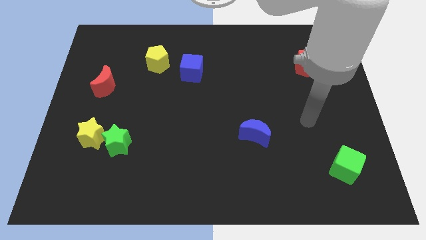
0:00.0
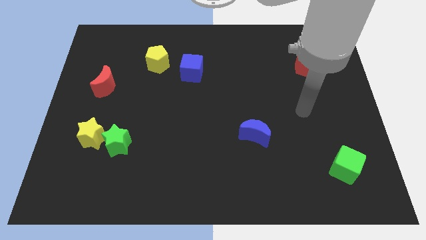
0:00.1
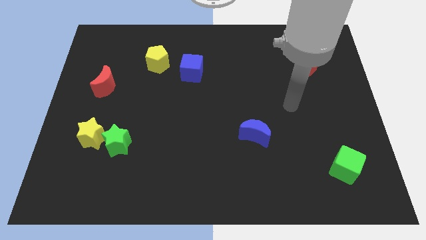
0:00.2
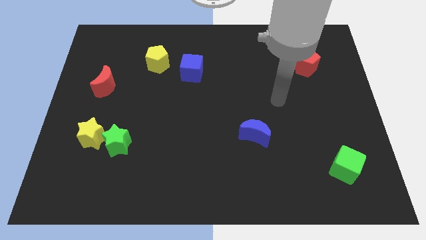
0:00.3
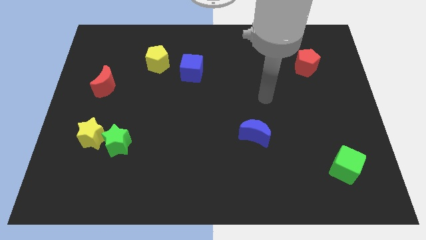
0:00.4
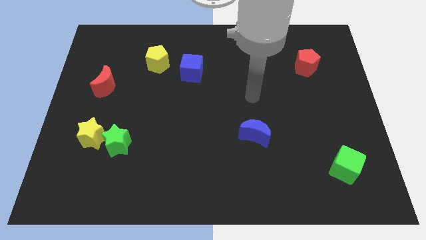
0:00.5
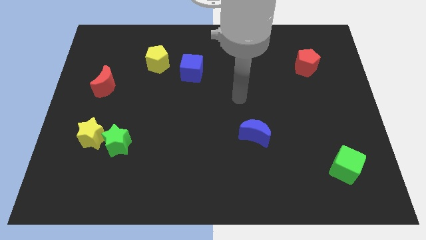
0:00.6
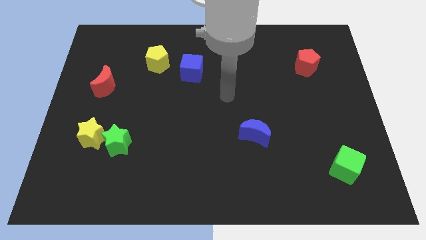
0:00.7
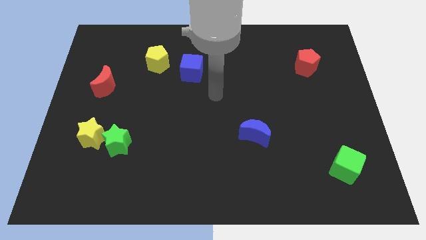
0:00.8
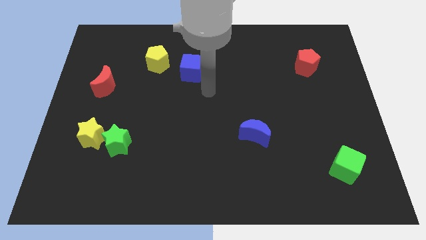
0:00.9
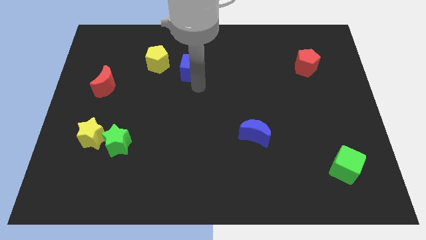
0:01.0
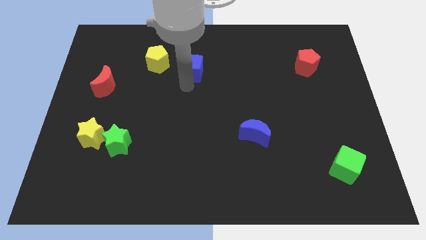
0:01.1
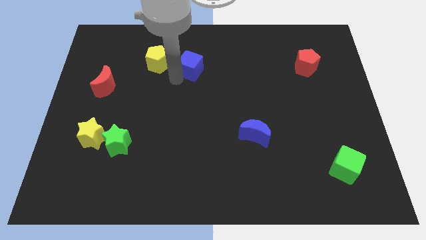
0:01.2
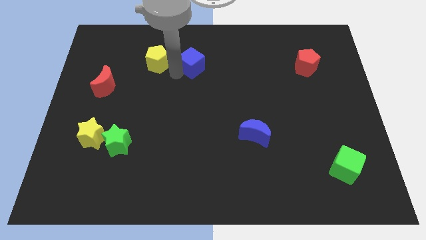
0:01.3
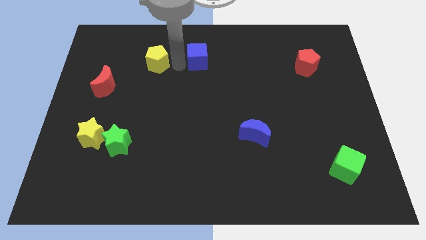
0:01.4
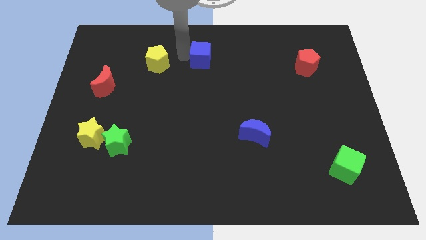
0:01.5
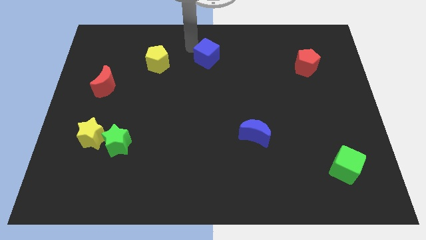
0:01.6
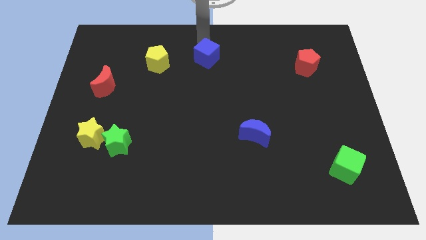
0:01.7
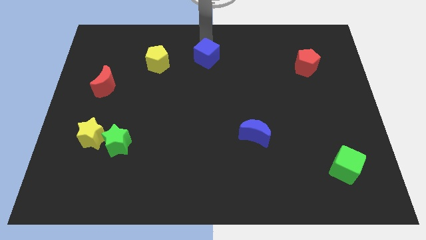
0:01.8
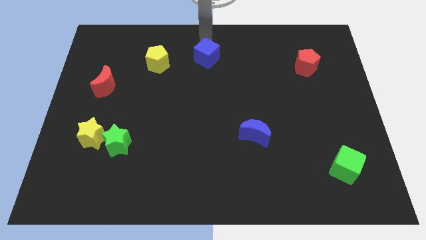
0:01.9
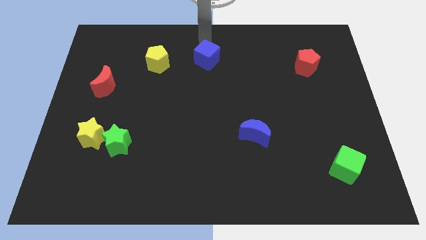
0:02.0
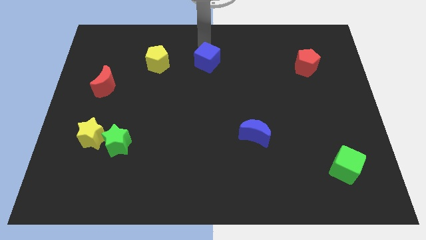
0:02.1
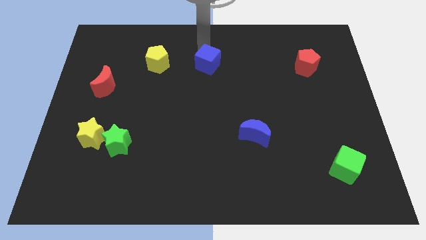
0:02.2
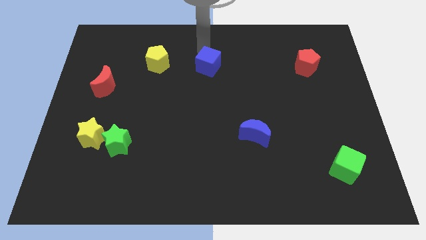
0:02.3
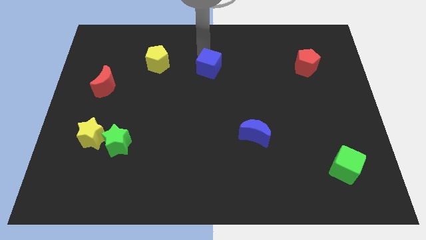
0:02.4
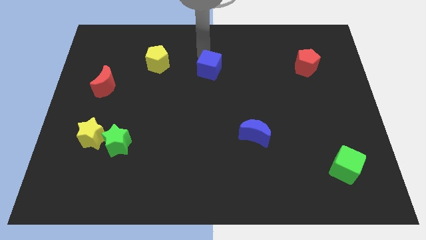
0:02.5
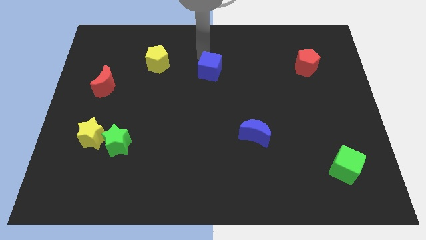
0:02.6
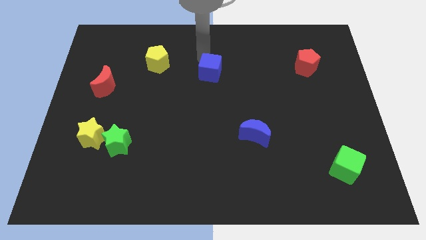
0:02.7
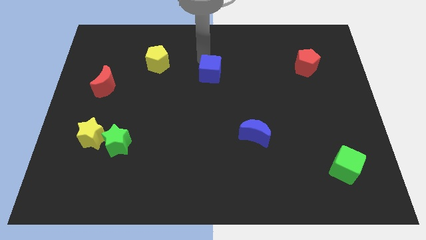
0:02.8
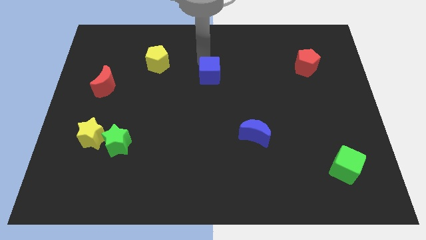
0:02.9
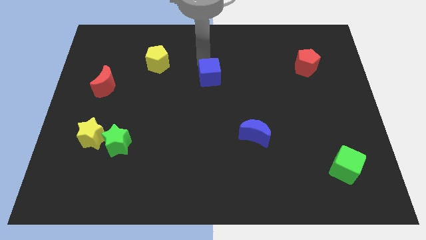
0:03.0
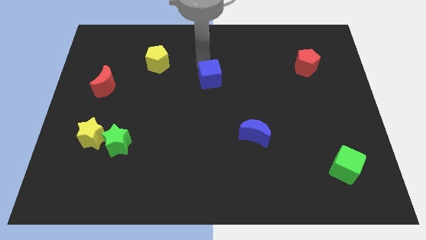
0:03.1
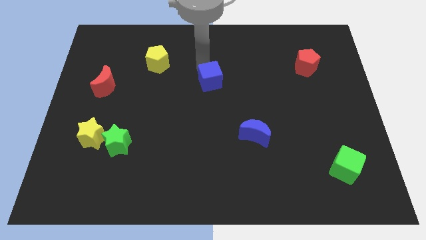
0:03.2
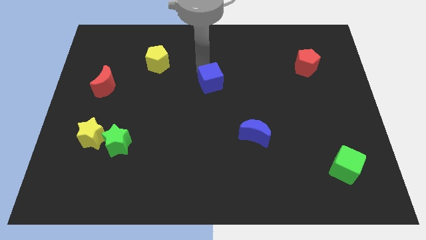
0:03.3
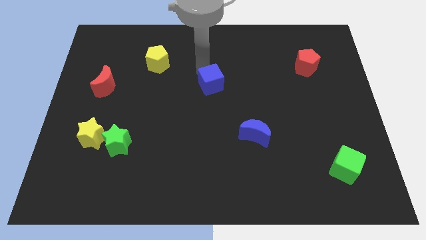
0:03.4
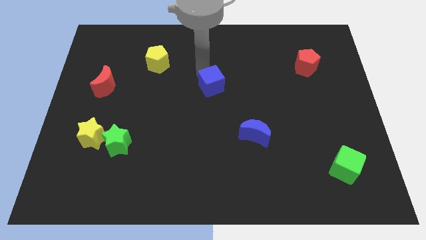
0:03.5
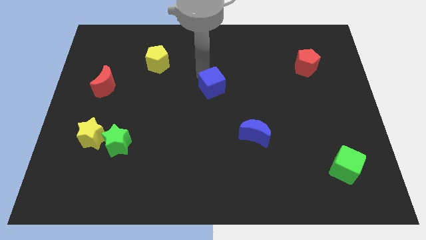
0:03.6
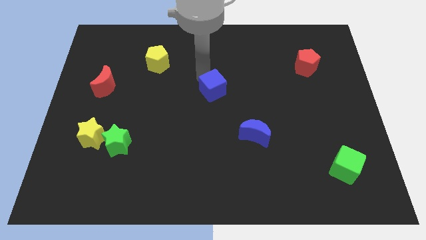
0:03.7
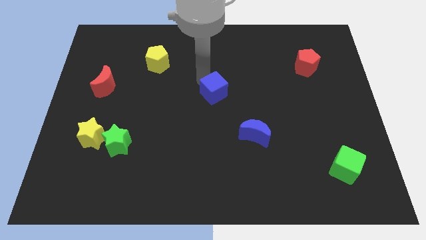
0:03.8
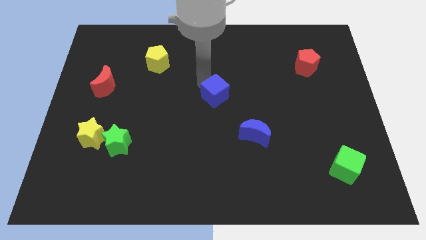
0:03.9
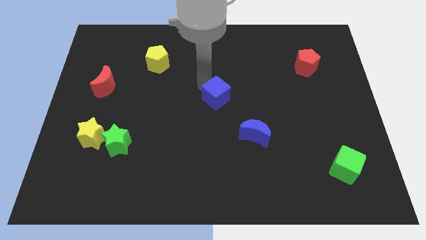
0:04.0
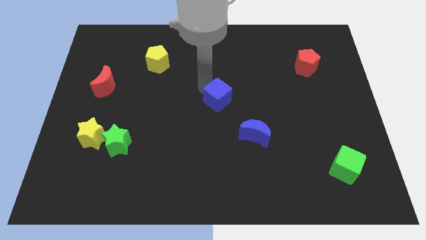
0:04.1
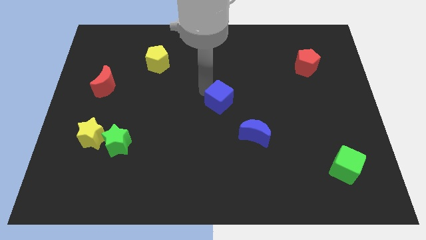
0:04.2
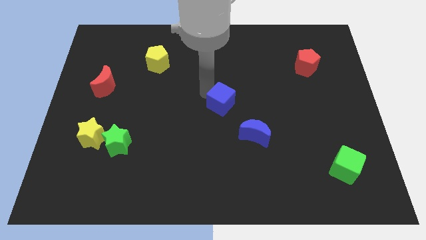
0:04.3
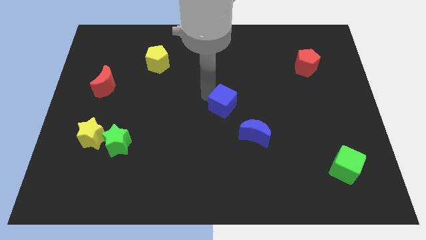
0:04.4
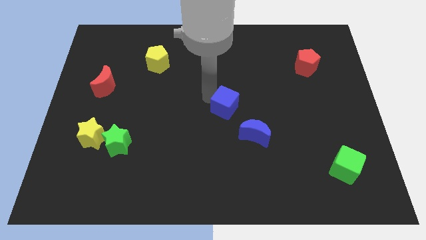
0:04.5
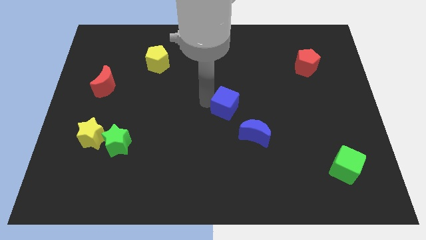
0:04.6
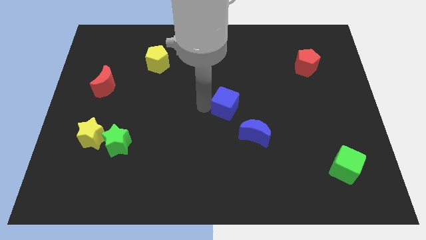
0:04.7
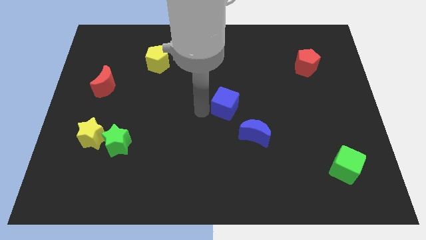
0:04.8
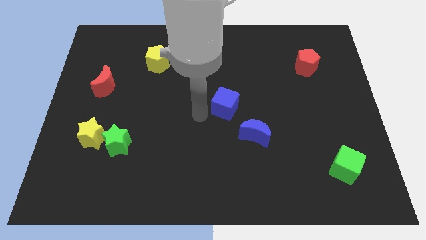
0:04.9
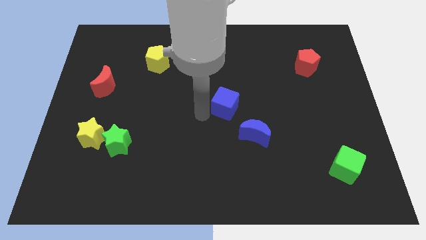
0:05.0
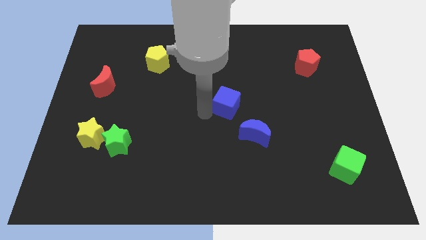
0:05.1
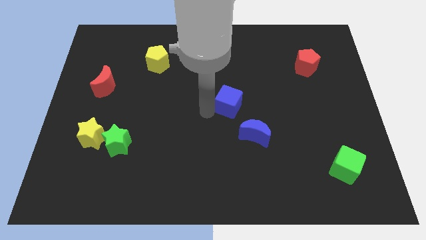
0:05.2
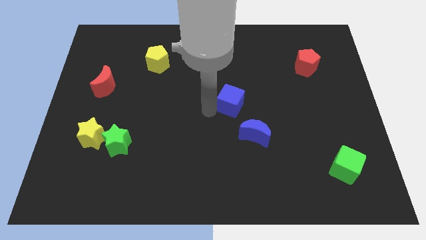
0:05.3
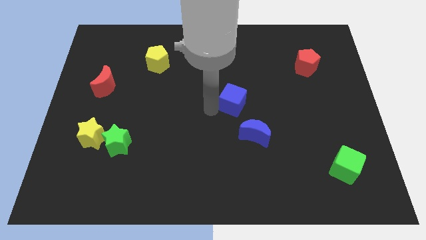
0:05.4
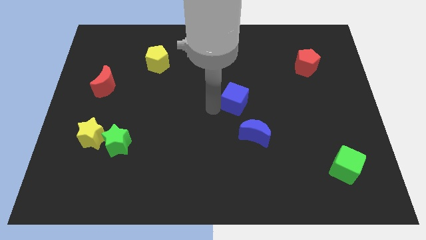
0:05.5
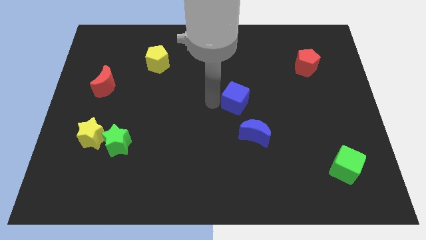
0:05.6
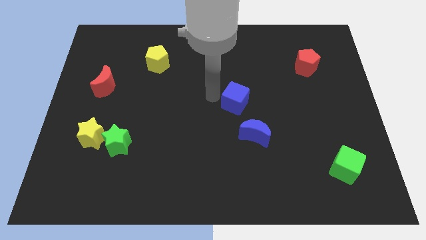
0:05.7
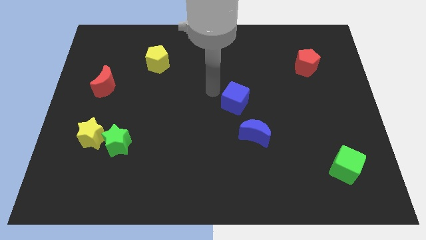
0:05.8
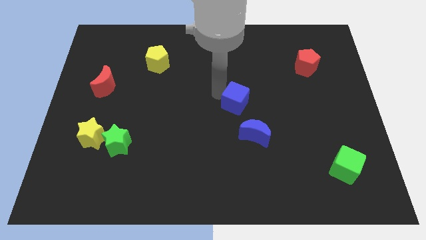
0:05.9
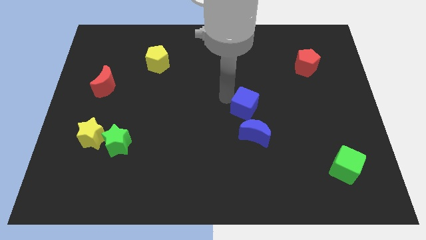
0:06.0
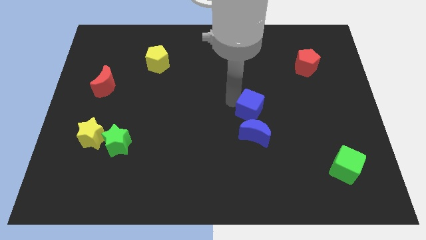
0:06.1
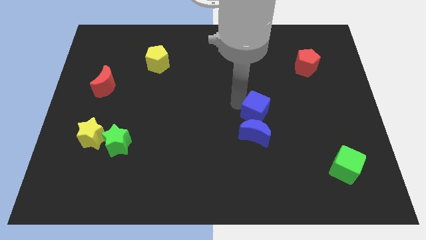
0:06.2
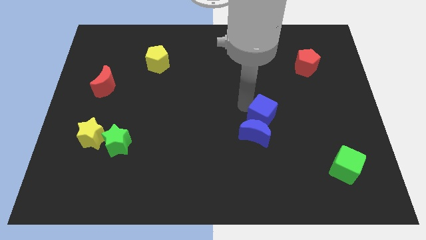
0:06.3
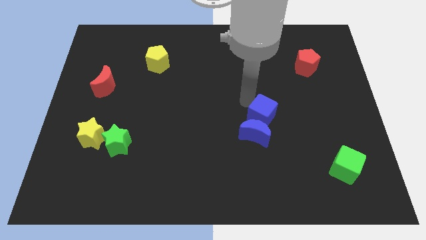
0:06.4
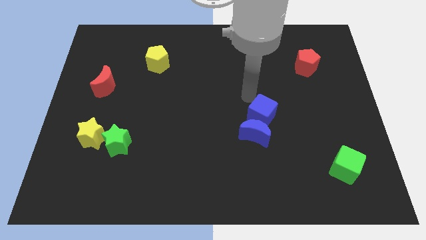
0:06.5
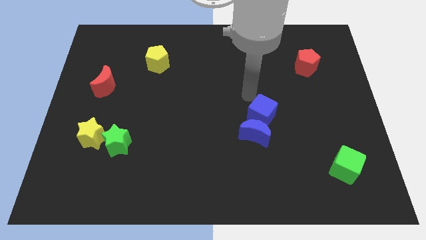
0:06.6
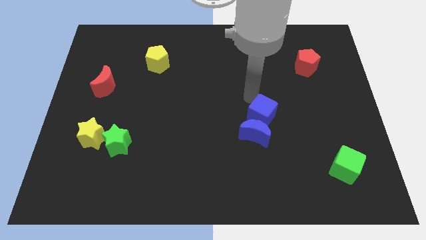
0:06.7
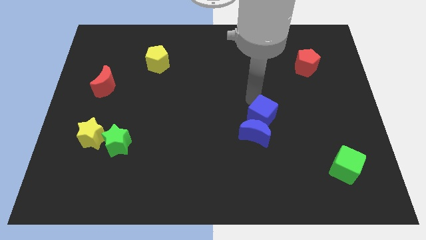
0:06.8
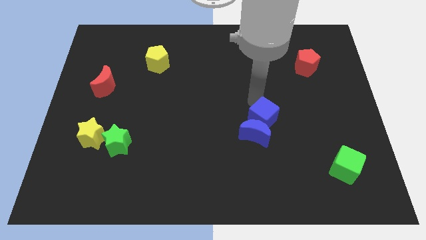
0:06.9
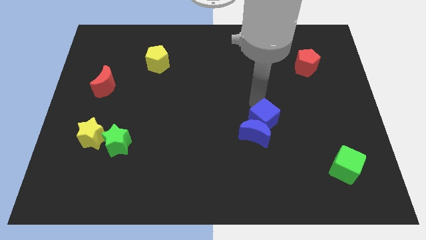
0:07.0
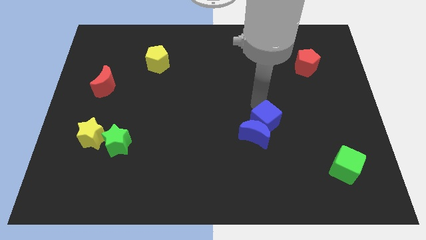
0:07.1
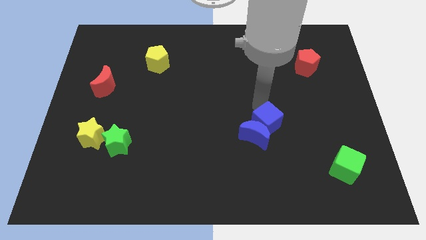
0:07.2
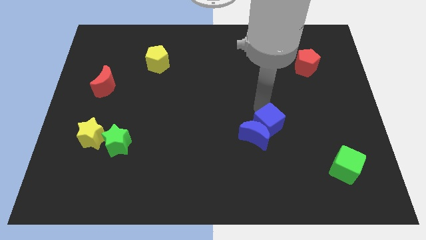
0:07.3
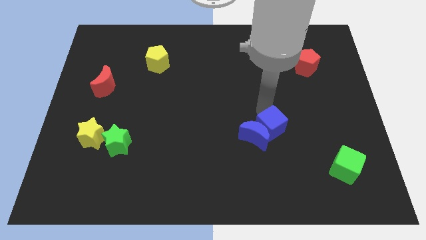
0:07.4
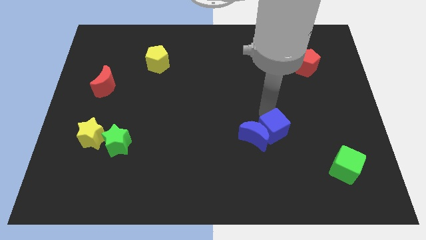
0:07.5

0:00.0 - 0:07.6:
push the blue cube to the bottom right side of the blue moon
